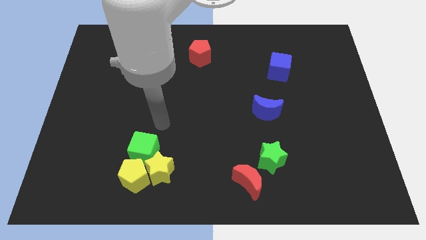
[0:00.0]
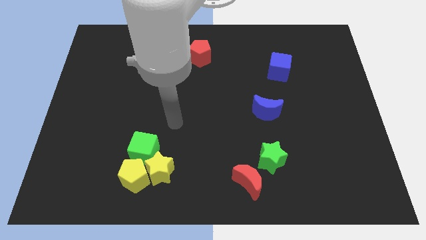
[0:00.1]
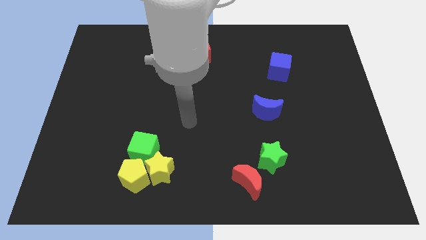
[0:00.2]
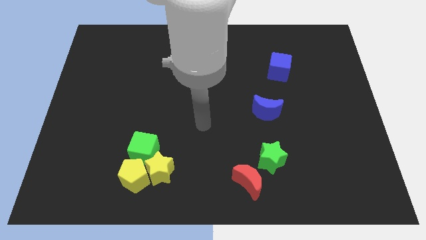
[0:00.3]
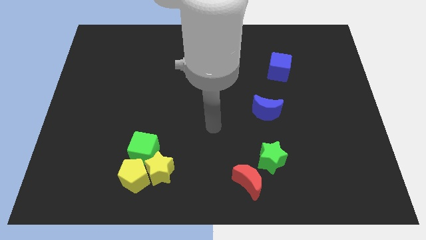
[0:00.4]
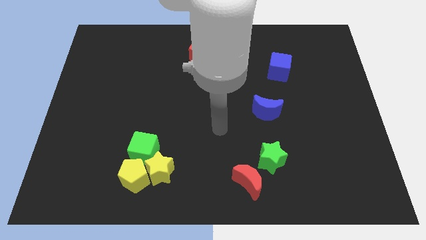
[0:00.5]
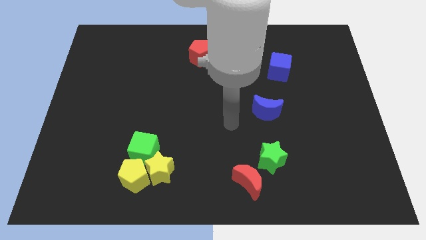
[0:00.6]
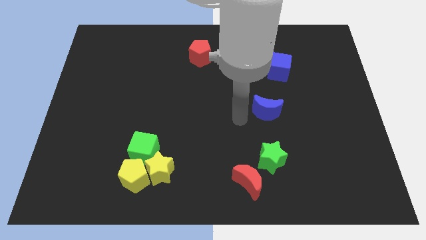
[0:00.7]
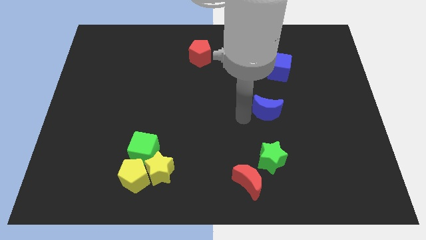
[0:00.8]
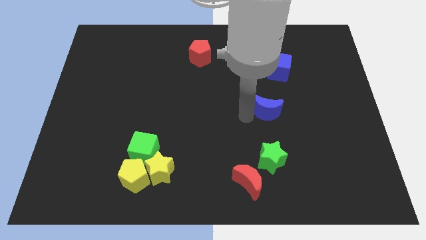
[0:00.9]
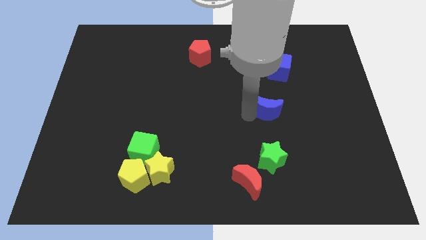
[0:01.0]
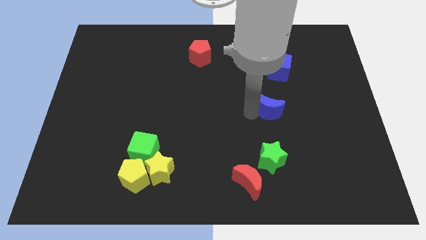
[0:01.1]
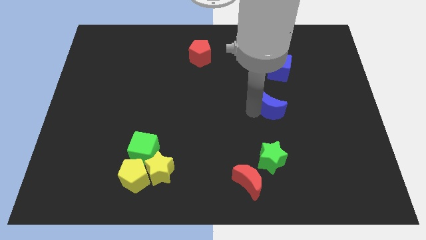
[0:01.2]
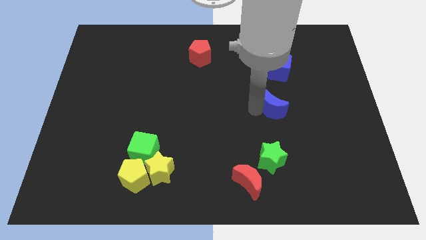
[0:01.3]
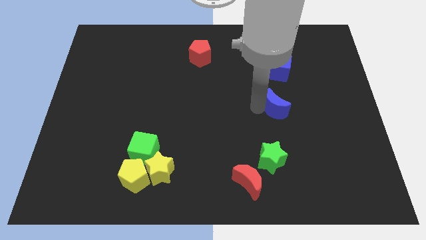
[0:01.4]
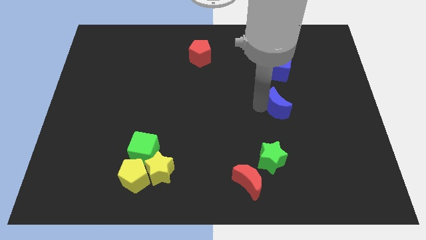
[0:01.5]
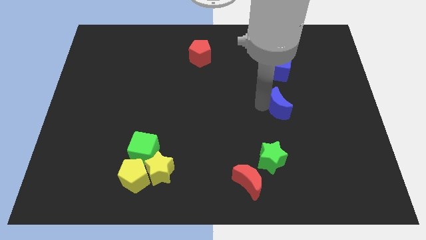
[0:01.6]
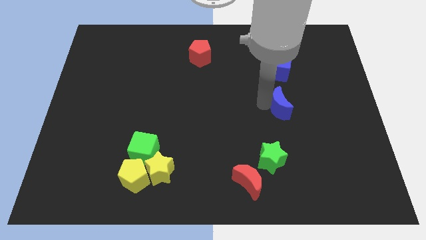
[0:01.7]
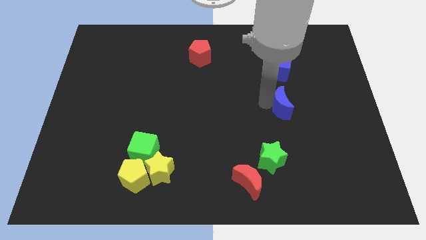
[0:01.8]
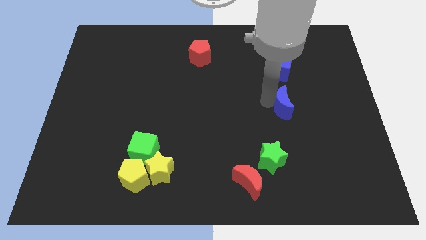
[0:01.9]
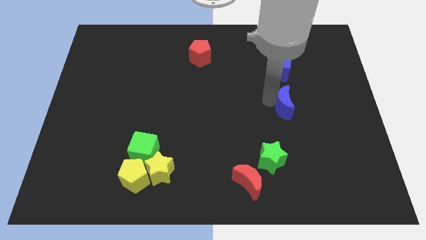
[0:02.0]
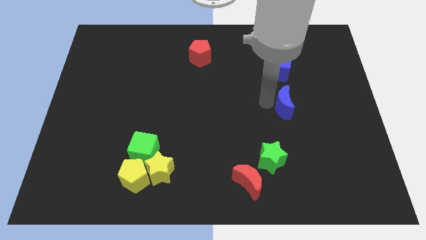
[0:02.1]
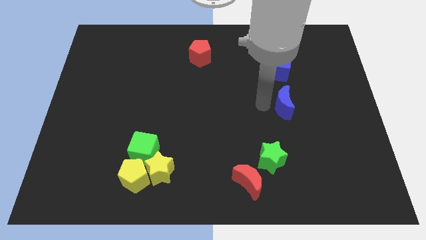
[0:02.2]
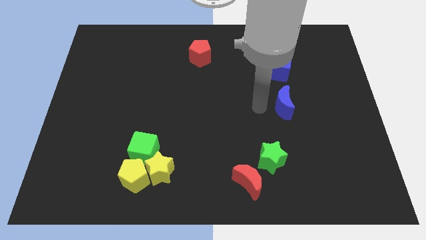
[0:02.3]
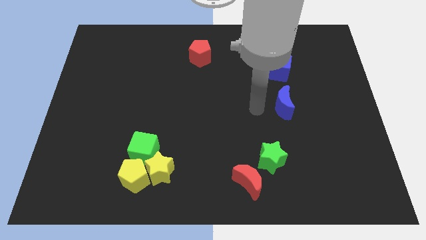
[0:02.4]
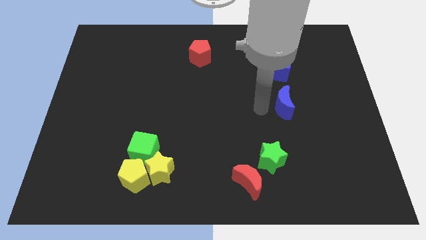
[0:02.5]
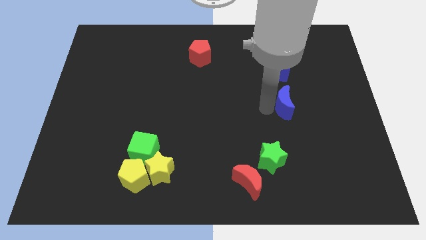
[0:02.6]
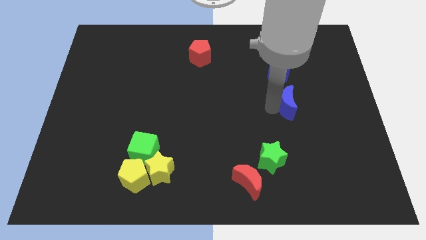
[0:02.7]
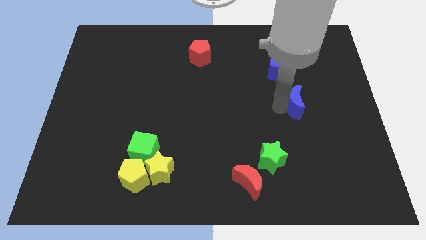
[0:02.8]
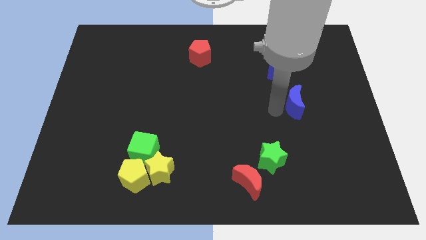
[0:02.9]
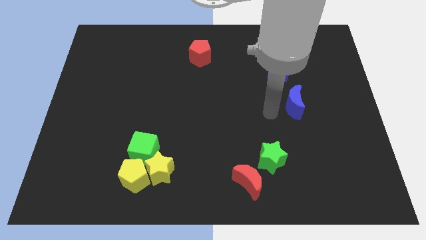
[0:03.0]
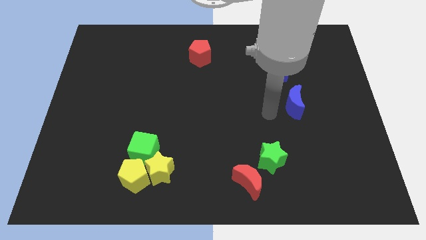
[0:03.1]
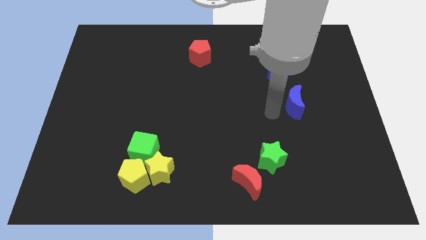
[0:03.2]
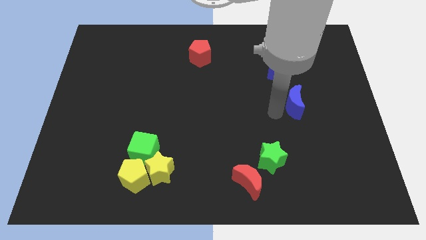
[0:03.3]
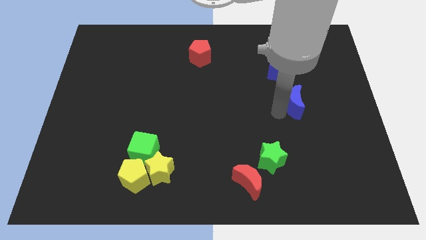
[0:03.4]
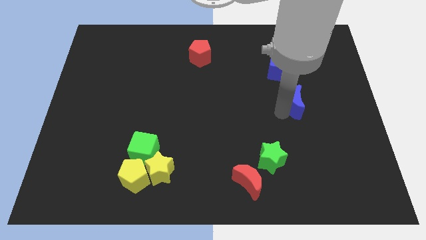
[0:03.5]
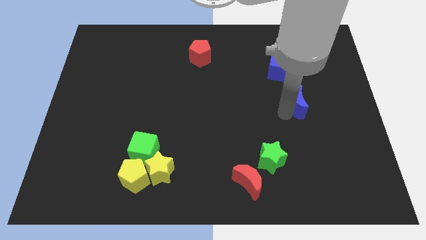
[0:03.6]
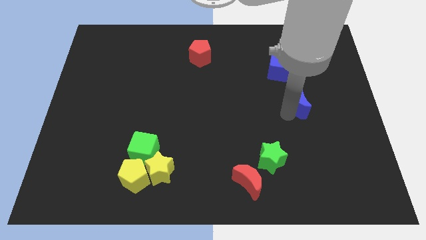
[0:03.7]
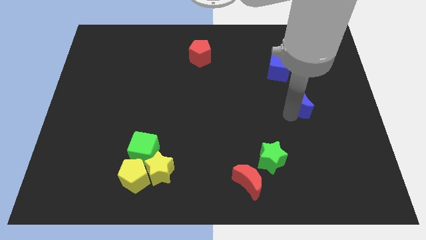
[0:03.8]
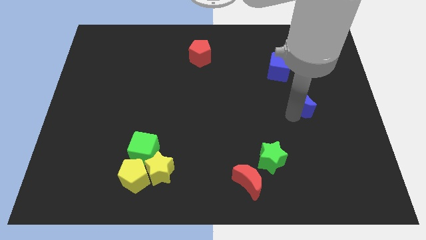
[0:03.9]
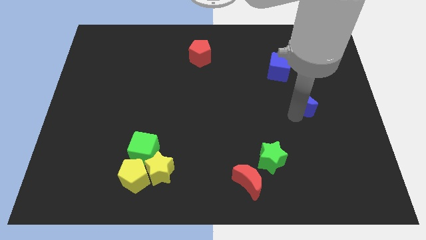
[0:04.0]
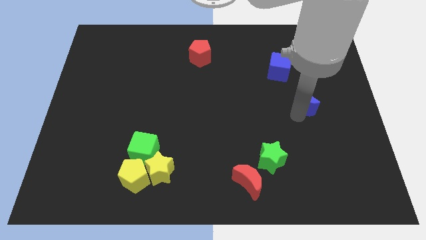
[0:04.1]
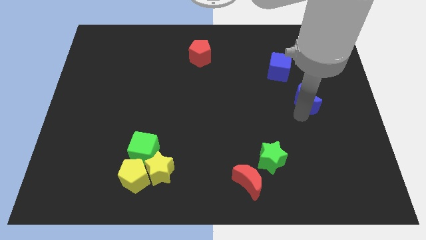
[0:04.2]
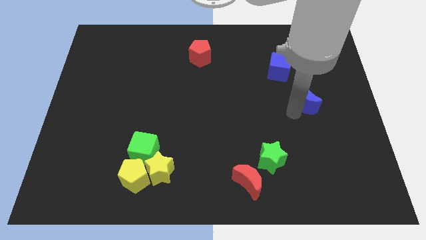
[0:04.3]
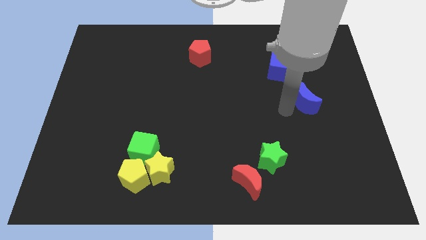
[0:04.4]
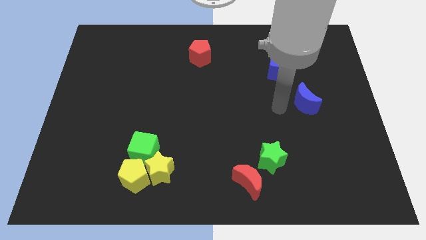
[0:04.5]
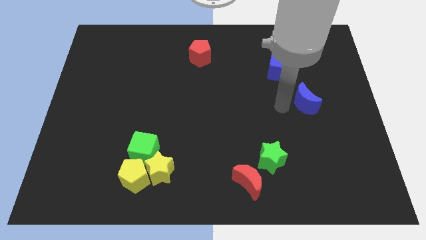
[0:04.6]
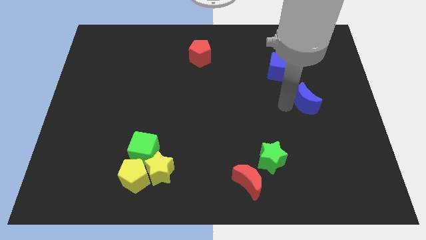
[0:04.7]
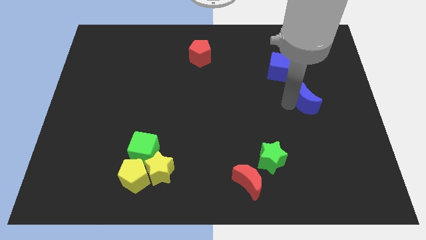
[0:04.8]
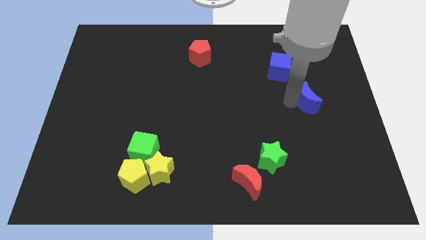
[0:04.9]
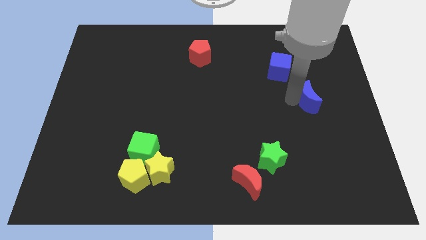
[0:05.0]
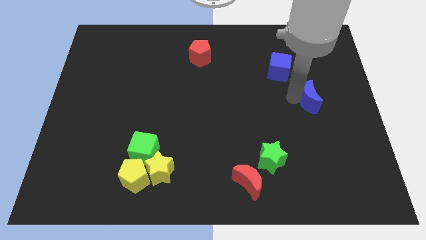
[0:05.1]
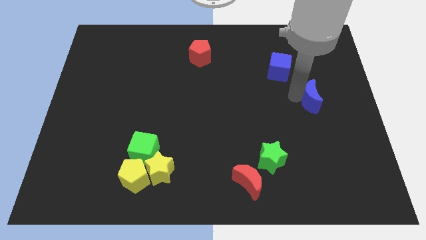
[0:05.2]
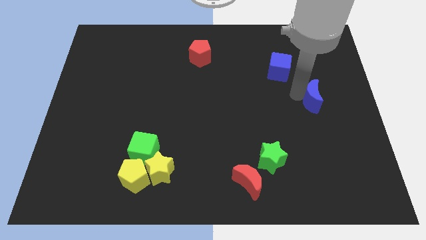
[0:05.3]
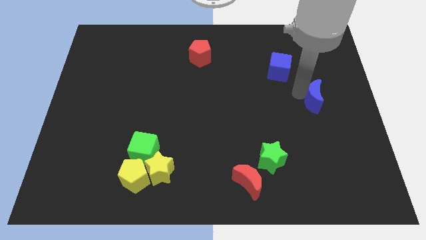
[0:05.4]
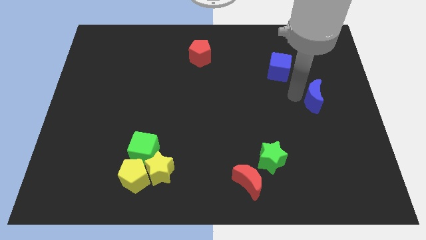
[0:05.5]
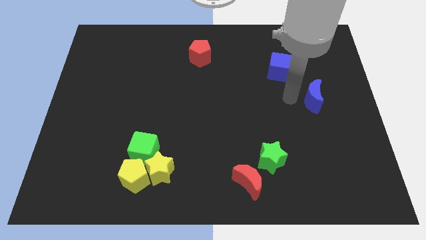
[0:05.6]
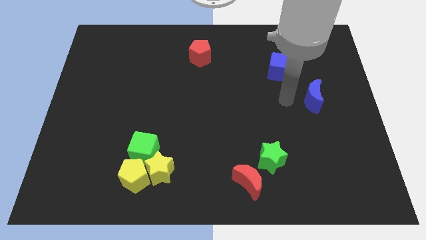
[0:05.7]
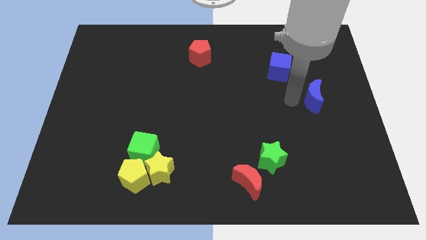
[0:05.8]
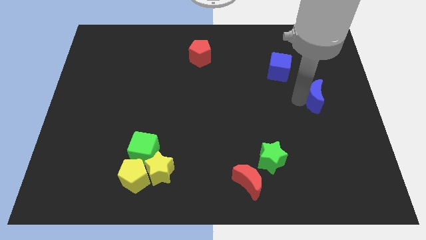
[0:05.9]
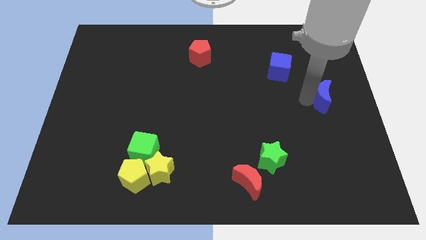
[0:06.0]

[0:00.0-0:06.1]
slide the blue moon to the center right

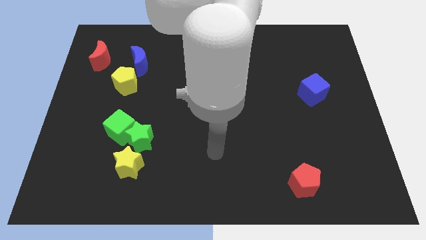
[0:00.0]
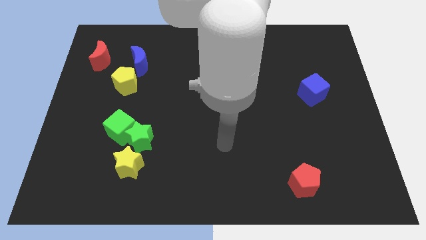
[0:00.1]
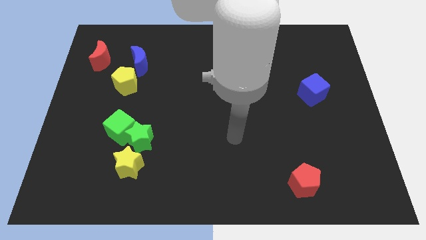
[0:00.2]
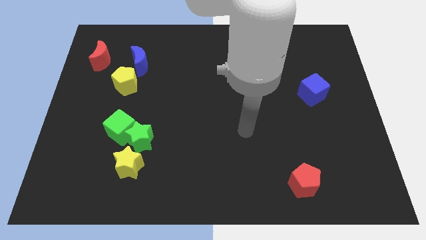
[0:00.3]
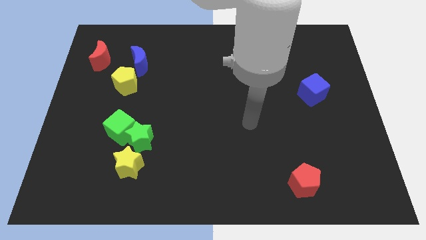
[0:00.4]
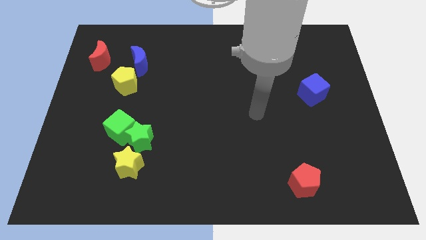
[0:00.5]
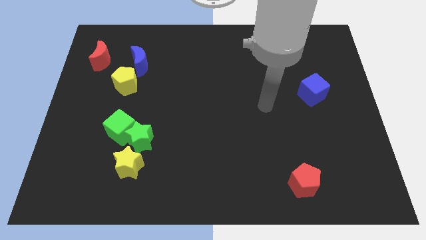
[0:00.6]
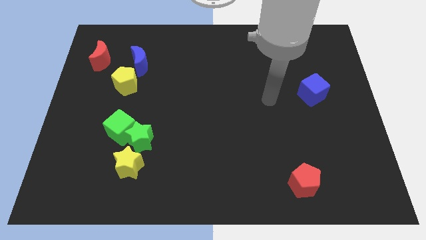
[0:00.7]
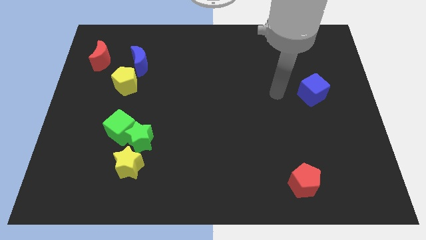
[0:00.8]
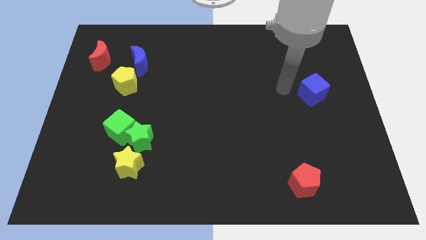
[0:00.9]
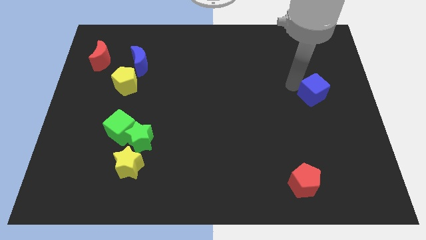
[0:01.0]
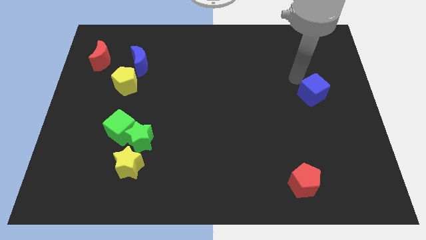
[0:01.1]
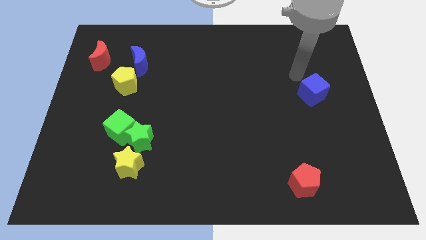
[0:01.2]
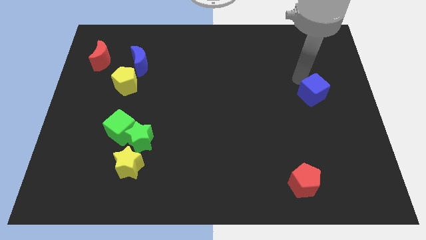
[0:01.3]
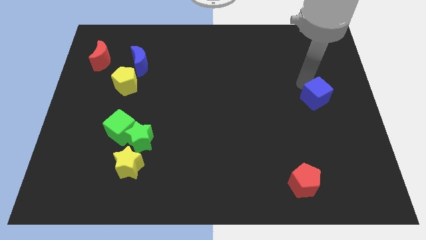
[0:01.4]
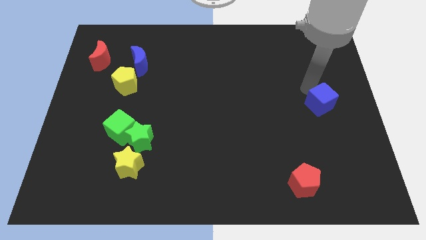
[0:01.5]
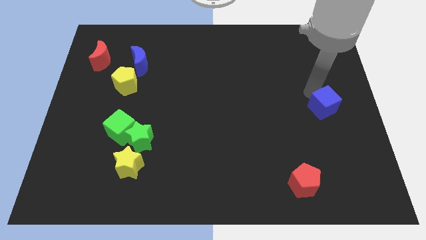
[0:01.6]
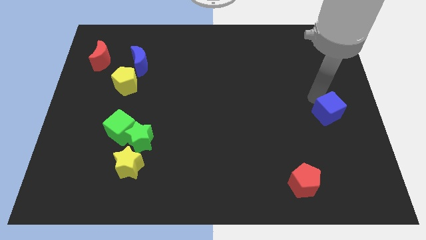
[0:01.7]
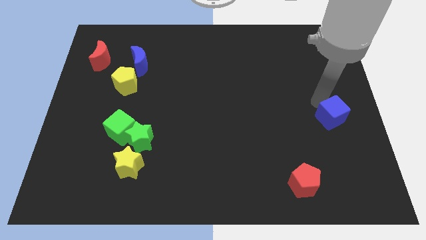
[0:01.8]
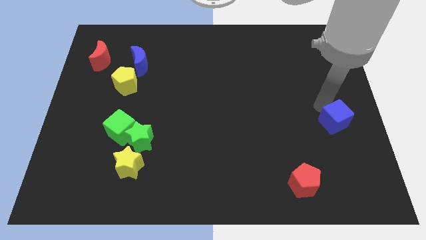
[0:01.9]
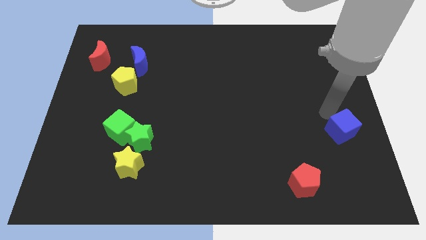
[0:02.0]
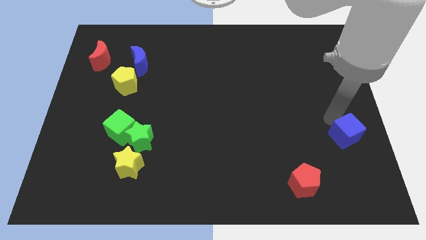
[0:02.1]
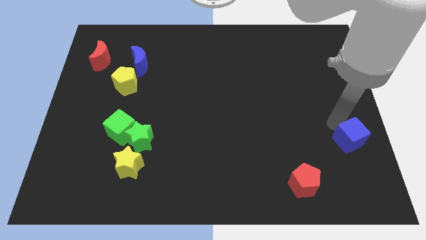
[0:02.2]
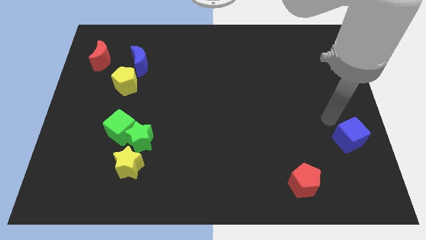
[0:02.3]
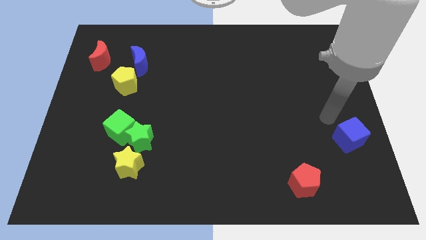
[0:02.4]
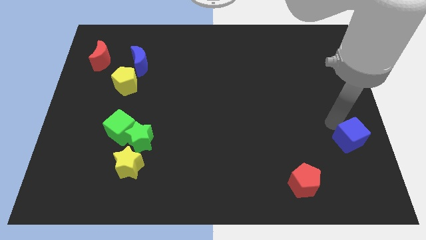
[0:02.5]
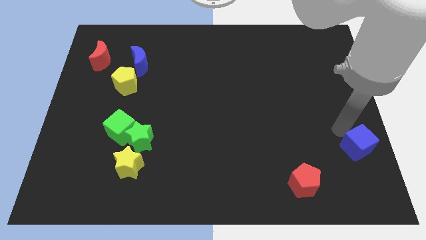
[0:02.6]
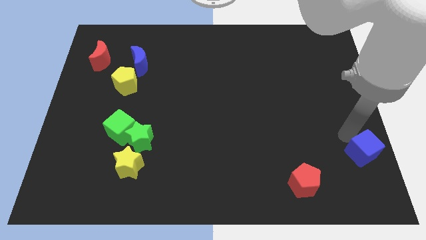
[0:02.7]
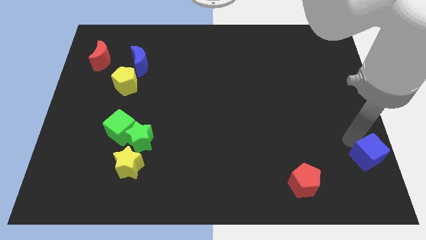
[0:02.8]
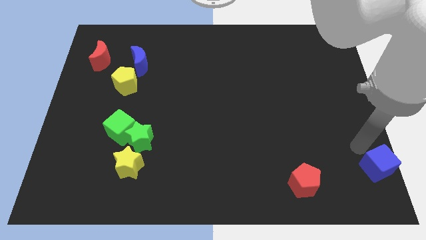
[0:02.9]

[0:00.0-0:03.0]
push the blue cube to the bottom right of the board
